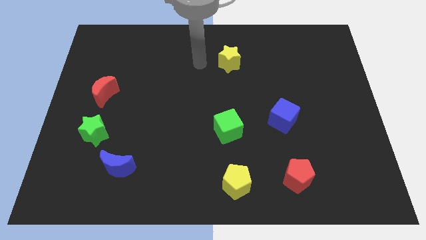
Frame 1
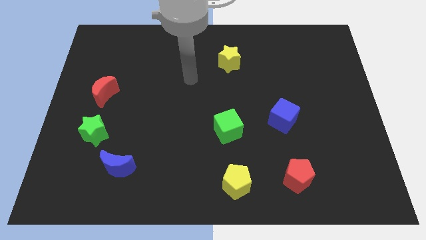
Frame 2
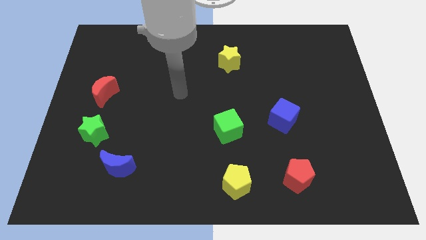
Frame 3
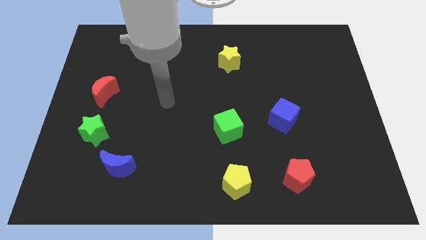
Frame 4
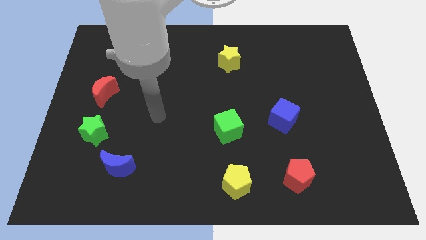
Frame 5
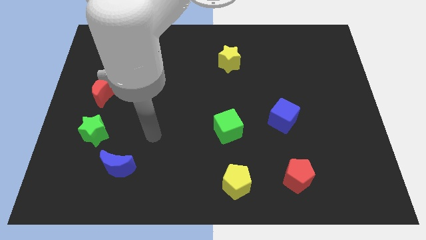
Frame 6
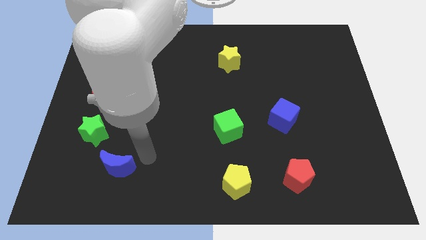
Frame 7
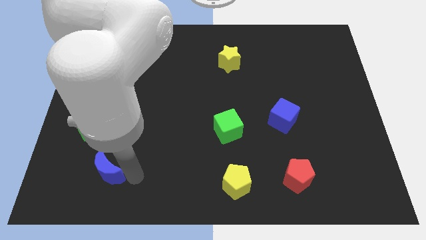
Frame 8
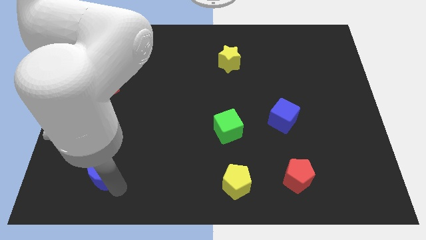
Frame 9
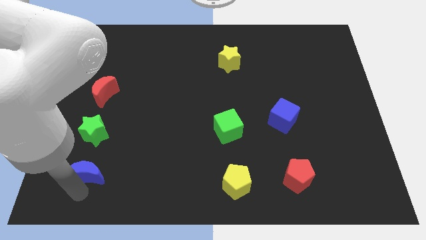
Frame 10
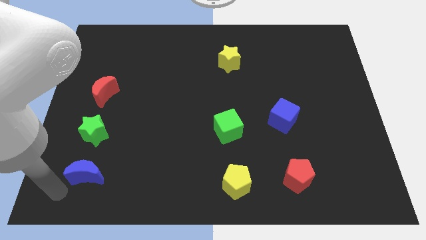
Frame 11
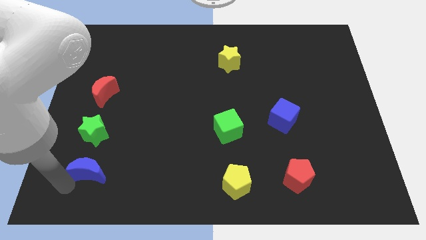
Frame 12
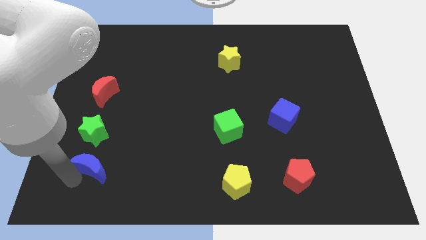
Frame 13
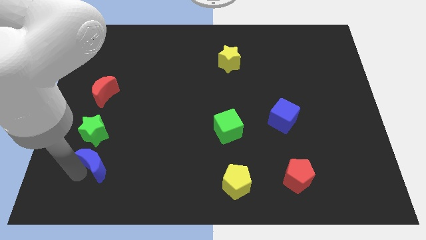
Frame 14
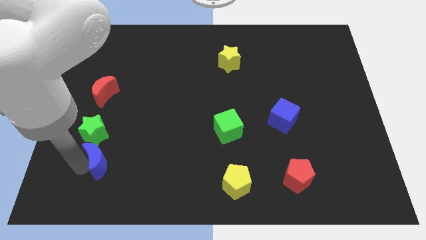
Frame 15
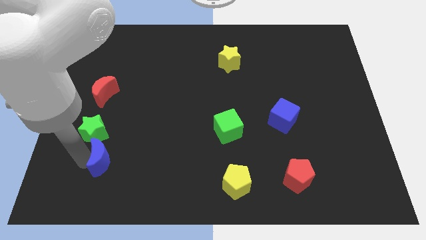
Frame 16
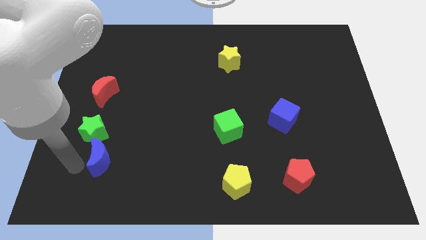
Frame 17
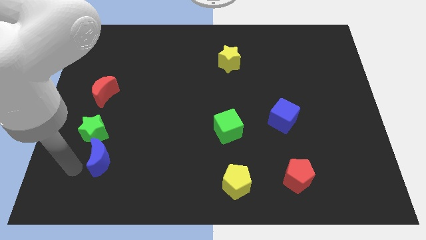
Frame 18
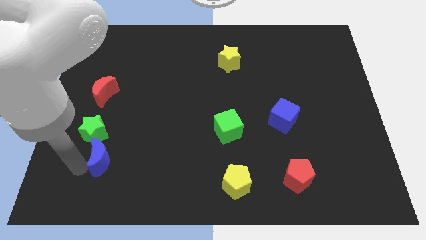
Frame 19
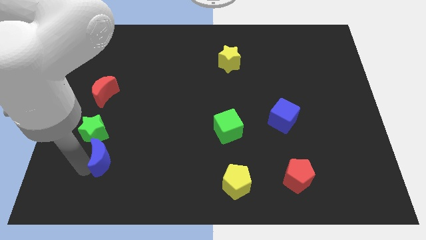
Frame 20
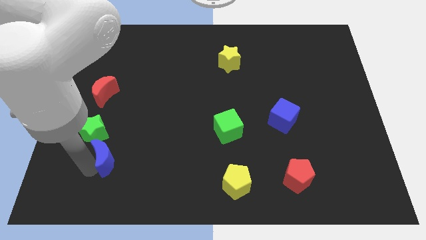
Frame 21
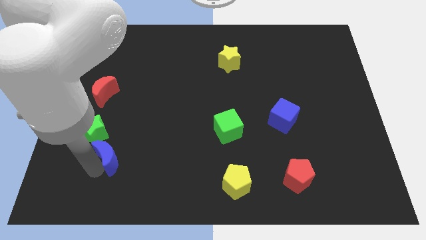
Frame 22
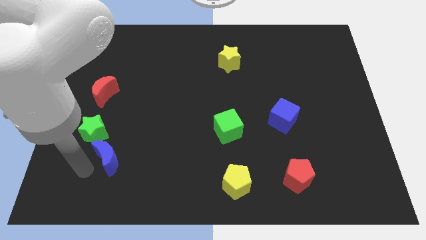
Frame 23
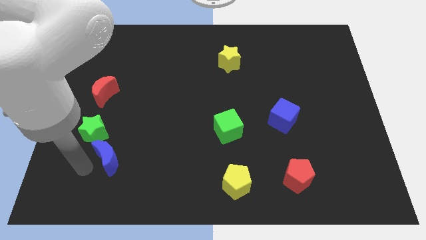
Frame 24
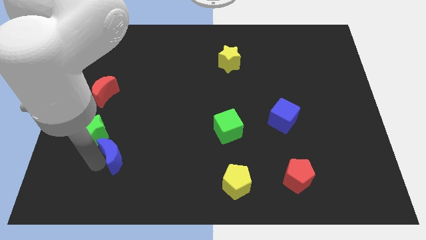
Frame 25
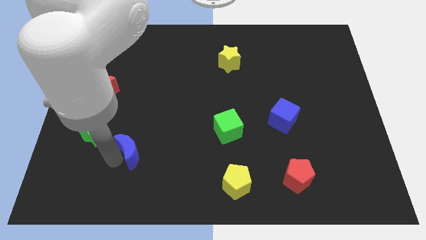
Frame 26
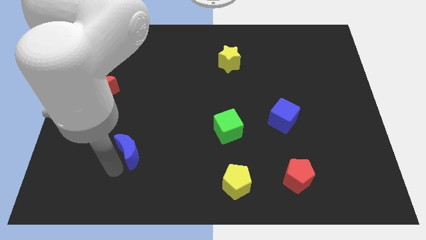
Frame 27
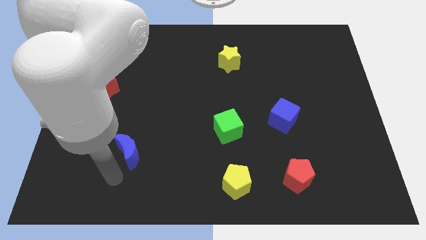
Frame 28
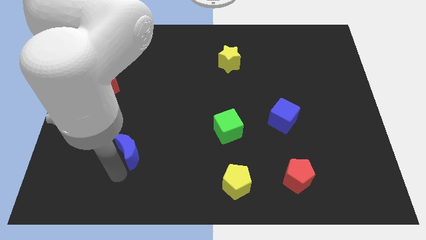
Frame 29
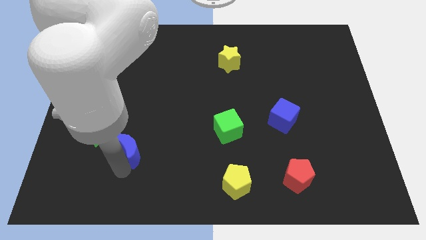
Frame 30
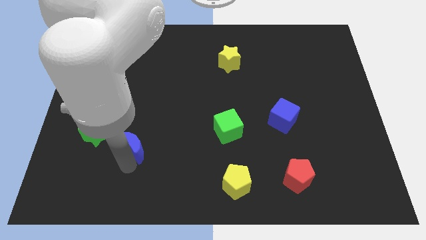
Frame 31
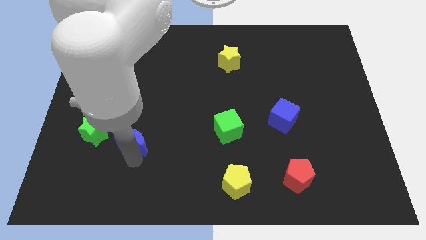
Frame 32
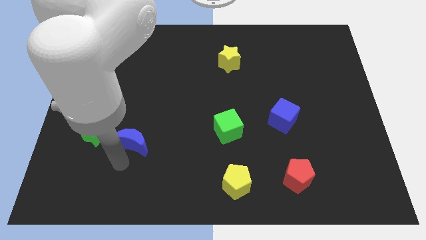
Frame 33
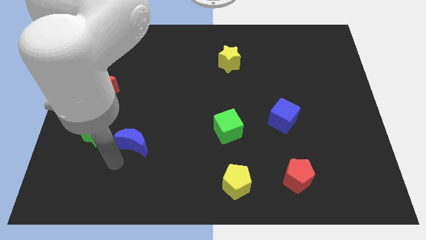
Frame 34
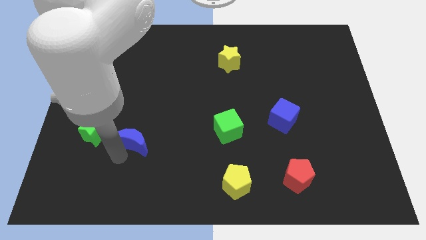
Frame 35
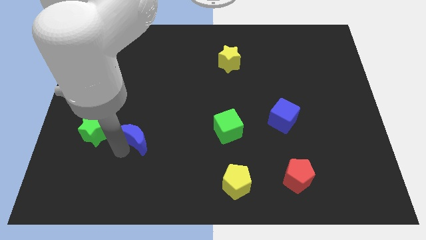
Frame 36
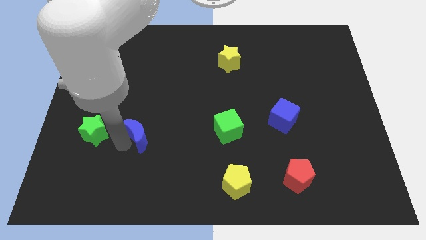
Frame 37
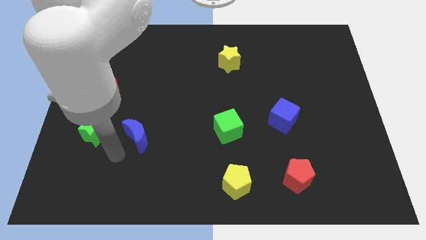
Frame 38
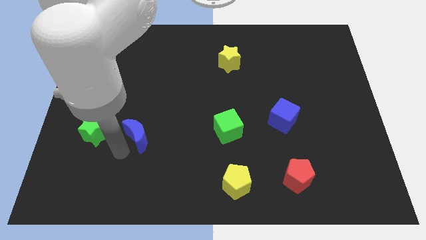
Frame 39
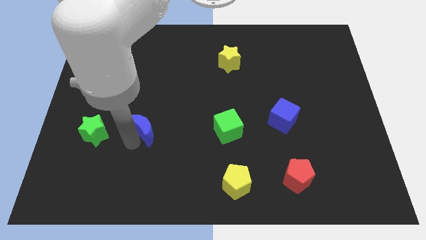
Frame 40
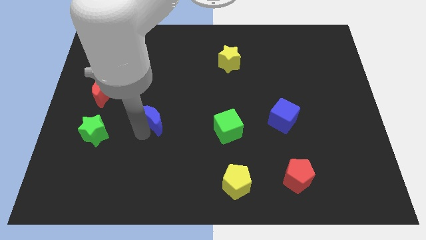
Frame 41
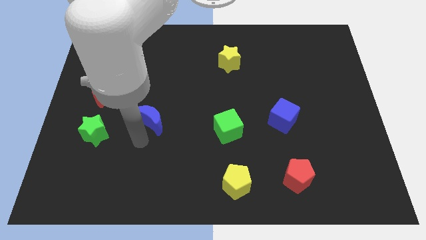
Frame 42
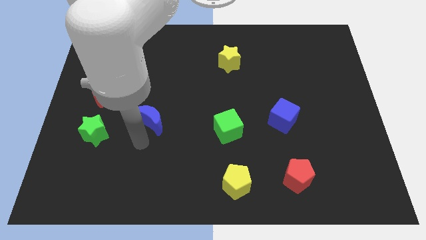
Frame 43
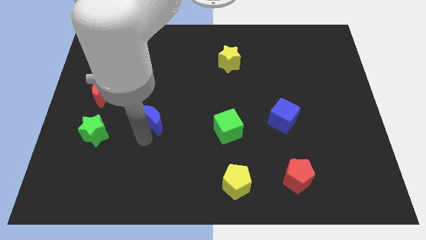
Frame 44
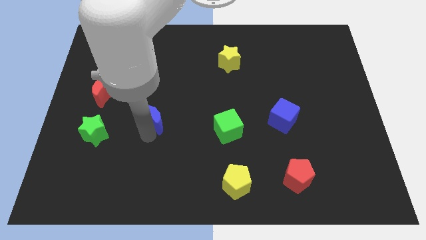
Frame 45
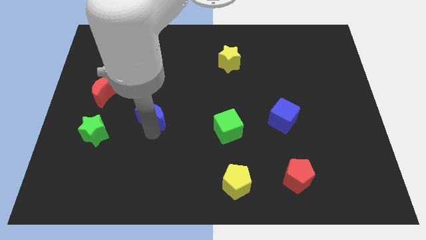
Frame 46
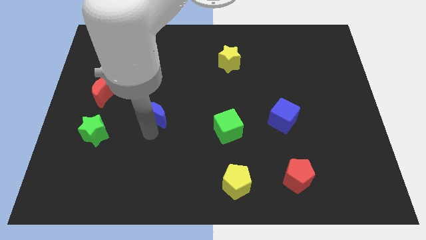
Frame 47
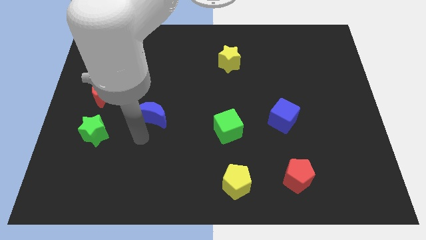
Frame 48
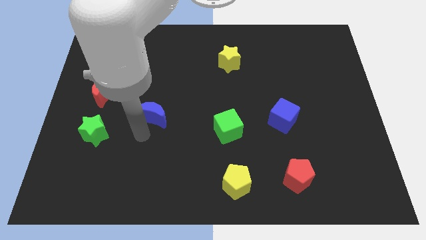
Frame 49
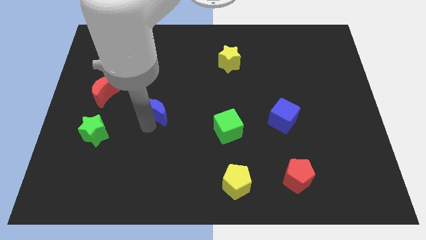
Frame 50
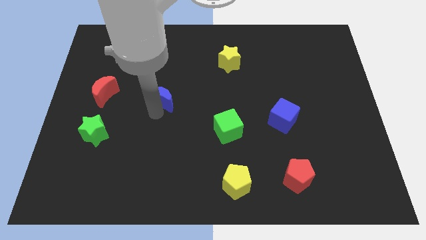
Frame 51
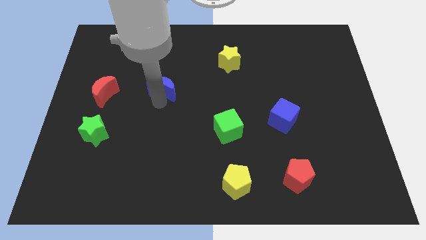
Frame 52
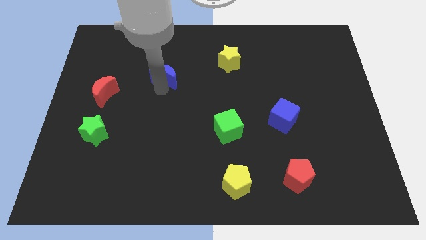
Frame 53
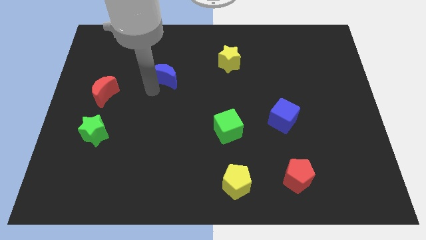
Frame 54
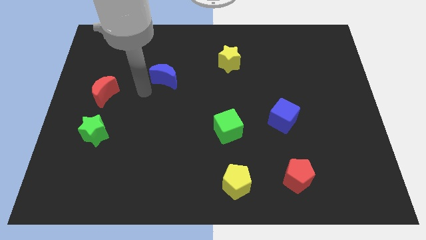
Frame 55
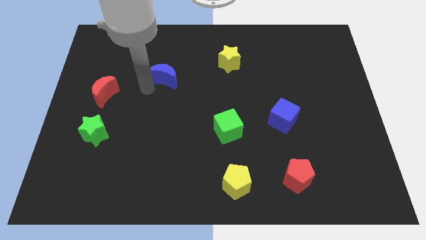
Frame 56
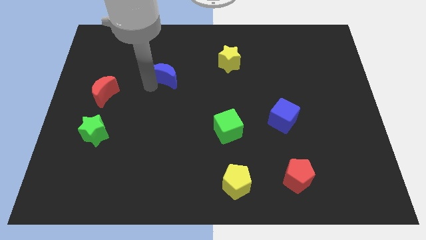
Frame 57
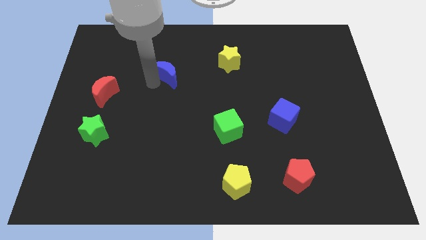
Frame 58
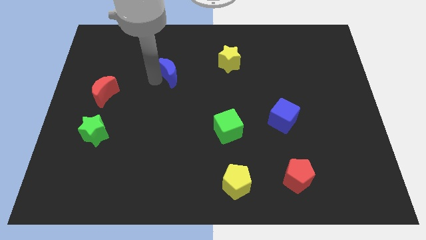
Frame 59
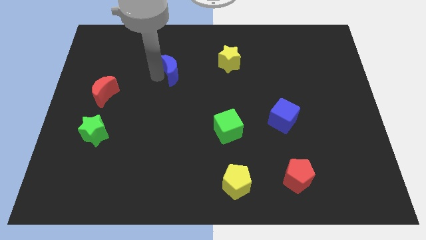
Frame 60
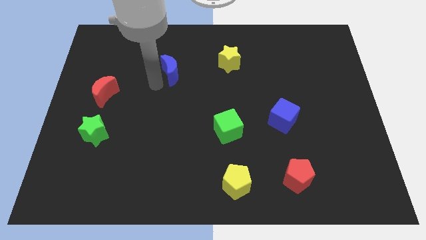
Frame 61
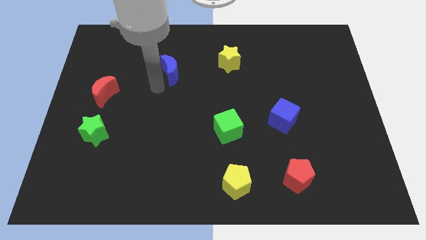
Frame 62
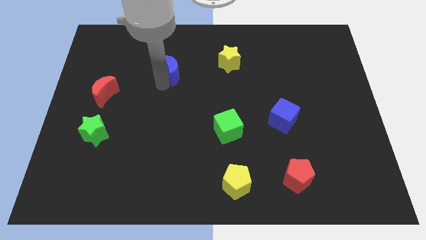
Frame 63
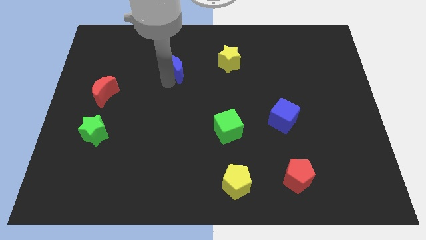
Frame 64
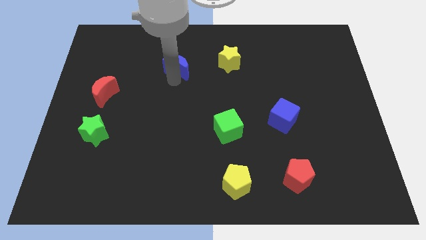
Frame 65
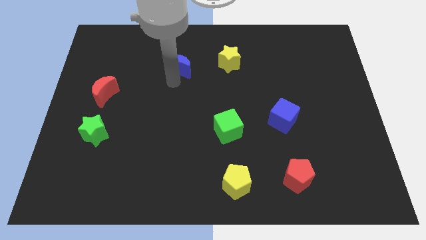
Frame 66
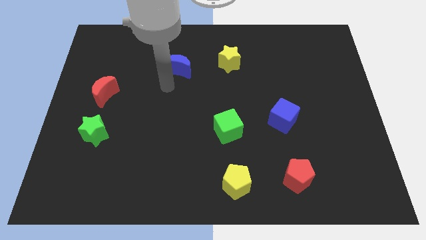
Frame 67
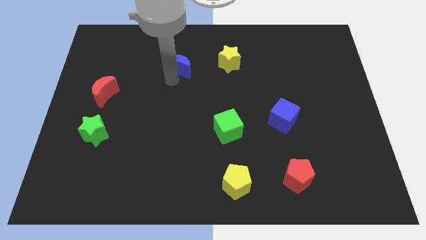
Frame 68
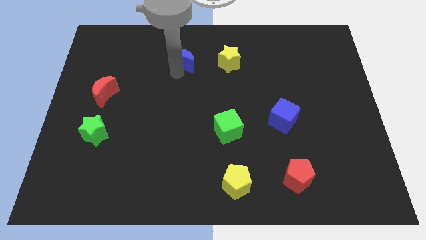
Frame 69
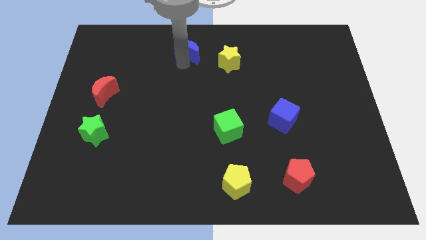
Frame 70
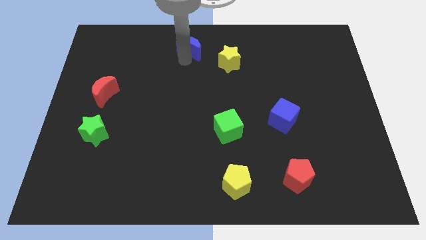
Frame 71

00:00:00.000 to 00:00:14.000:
put the blue moon to the top side
